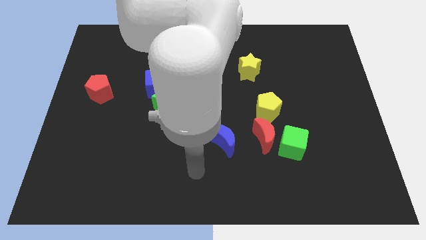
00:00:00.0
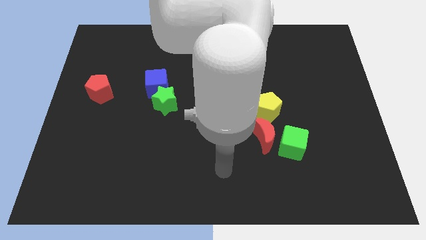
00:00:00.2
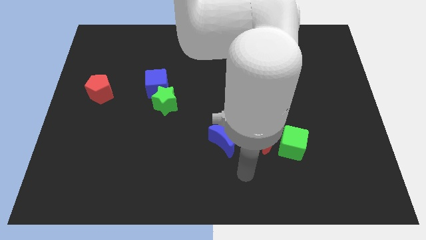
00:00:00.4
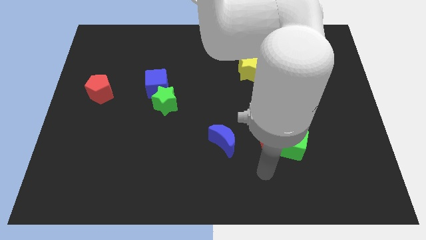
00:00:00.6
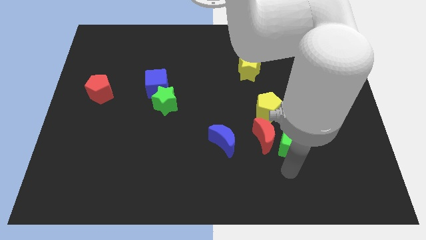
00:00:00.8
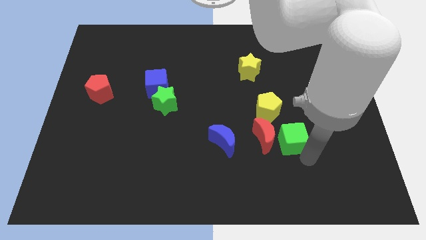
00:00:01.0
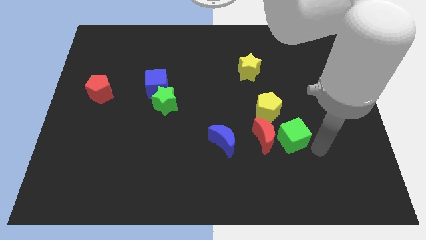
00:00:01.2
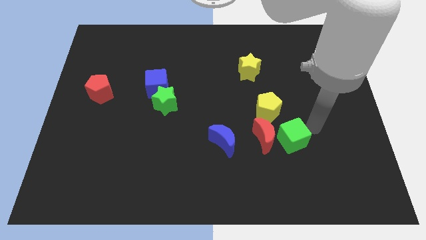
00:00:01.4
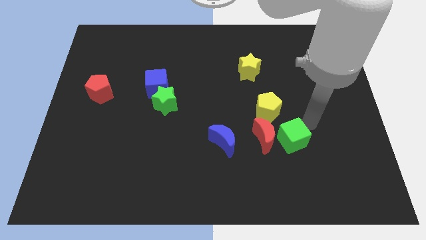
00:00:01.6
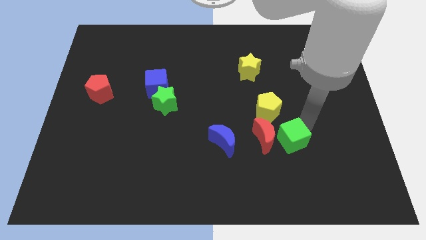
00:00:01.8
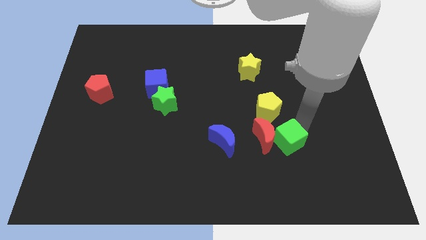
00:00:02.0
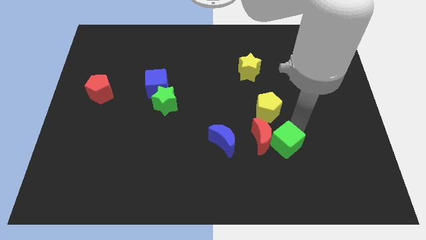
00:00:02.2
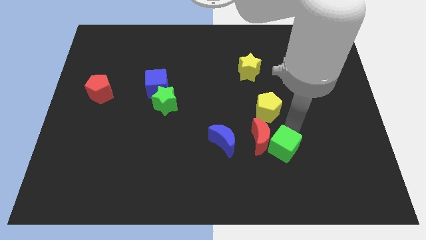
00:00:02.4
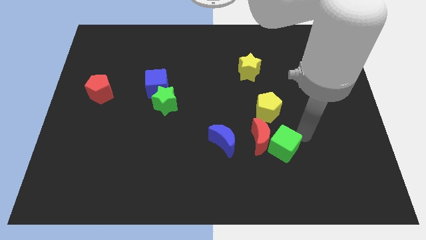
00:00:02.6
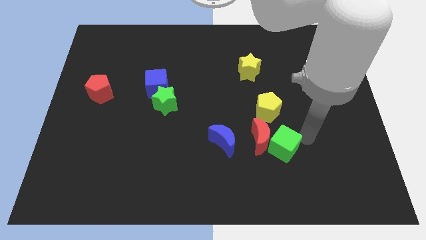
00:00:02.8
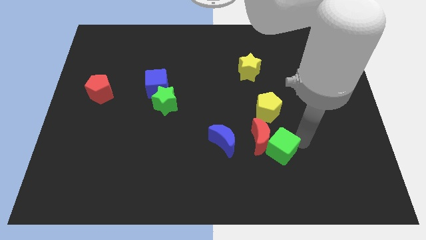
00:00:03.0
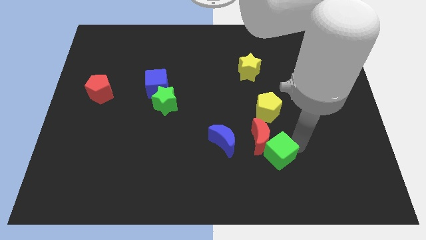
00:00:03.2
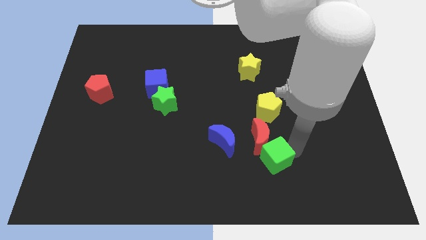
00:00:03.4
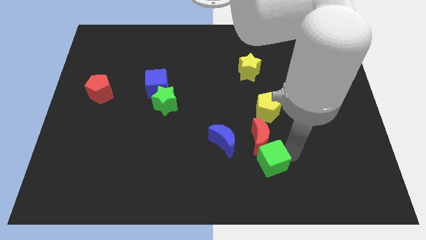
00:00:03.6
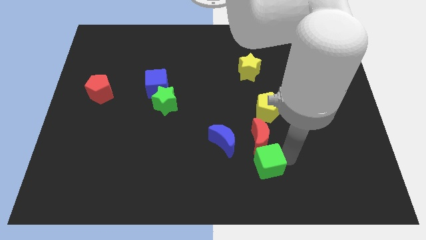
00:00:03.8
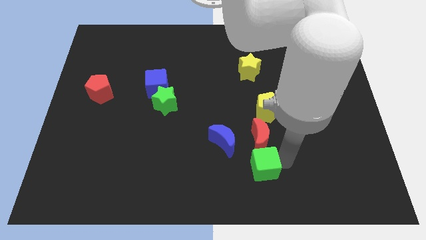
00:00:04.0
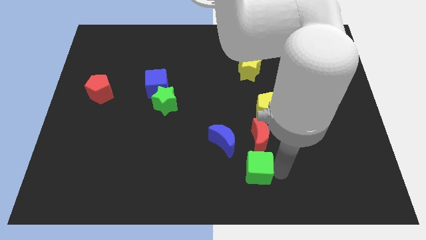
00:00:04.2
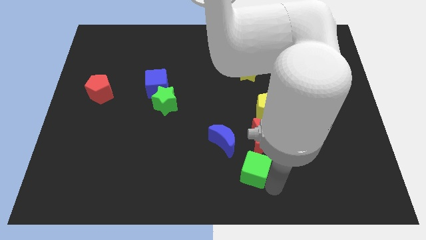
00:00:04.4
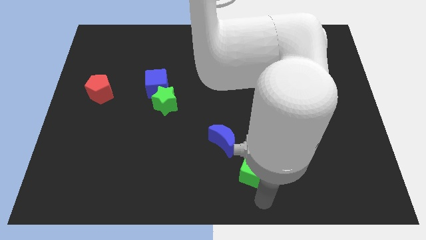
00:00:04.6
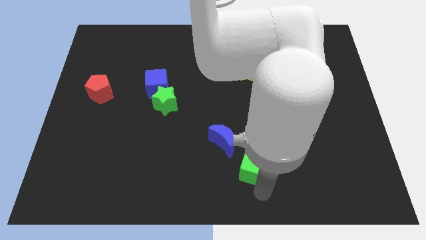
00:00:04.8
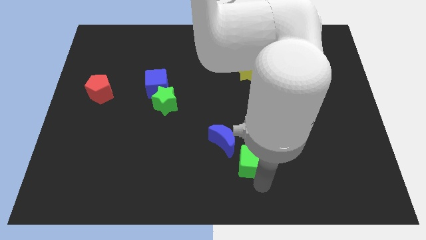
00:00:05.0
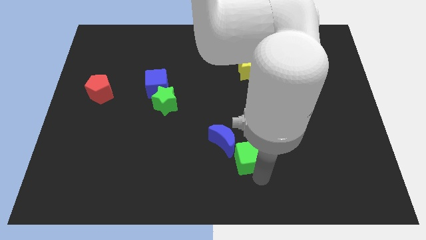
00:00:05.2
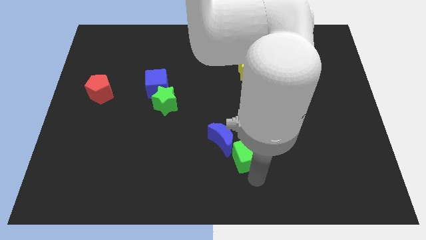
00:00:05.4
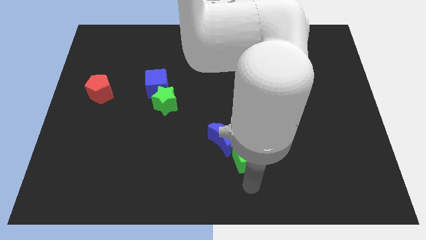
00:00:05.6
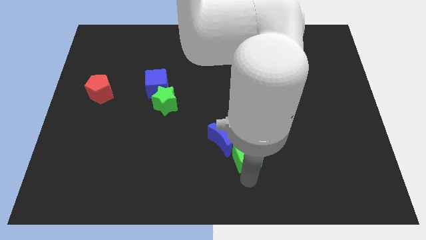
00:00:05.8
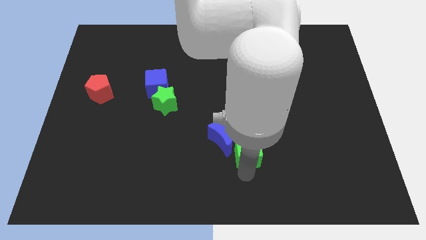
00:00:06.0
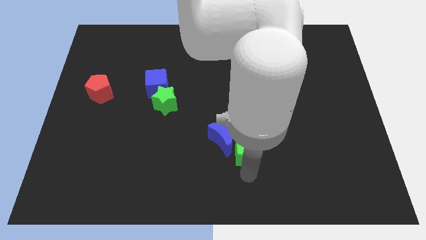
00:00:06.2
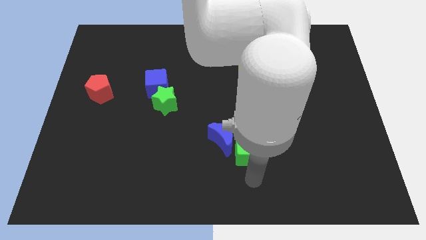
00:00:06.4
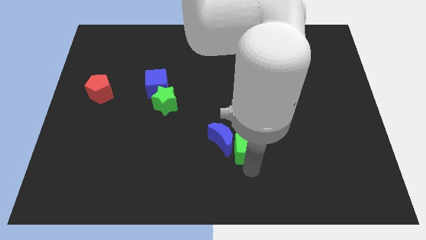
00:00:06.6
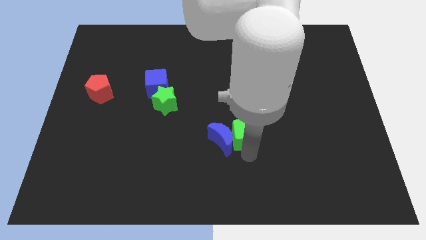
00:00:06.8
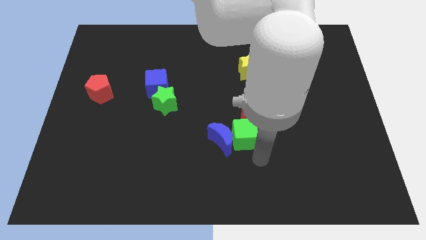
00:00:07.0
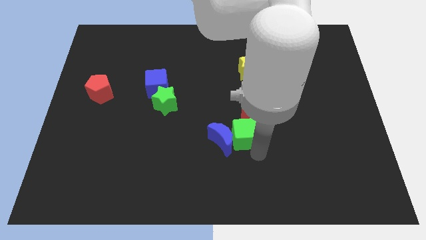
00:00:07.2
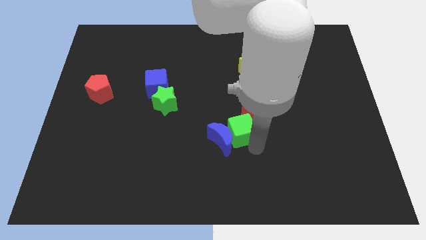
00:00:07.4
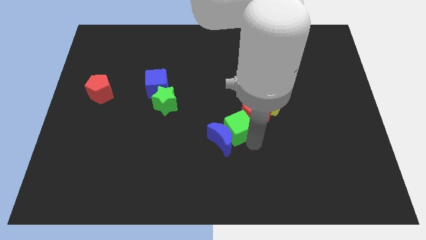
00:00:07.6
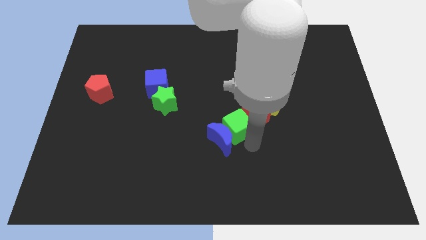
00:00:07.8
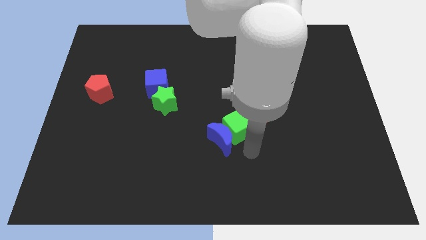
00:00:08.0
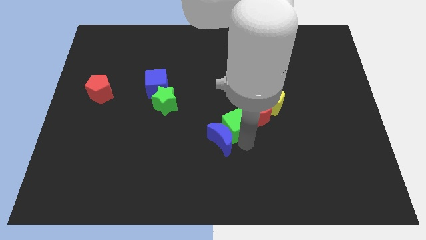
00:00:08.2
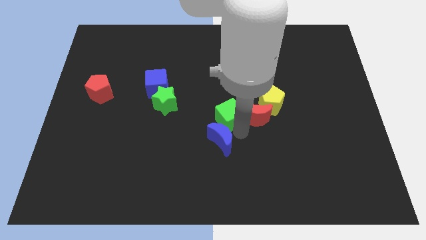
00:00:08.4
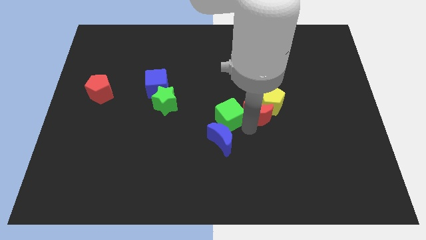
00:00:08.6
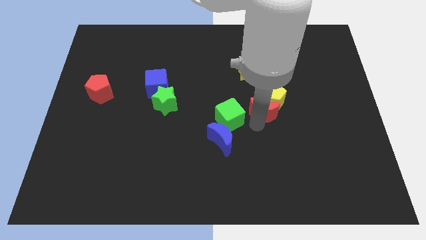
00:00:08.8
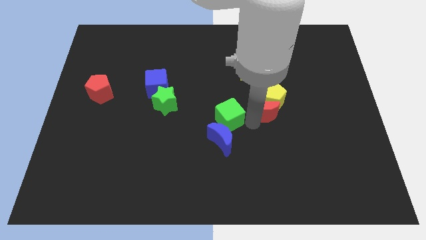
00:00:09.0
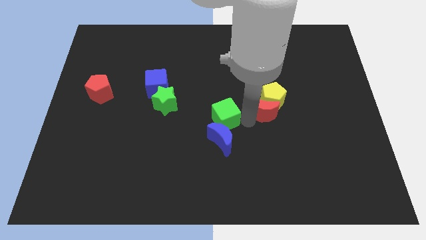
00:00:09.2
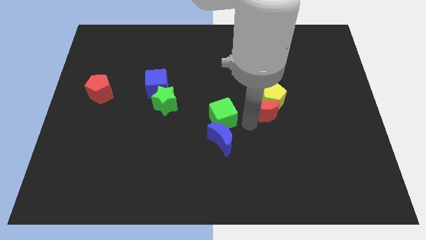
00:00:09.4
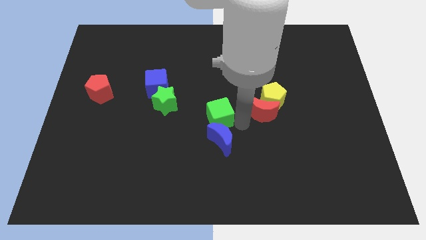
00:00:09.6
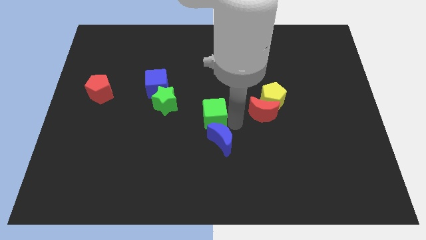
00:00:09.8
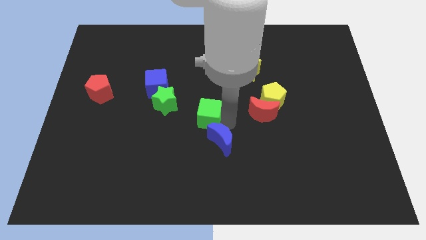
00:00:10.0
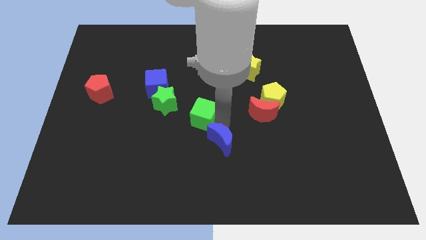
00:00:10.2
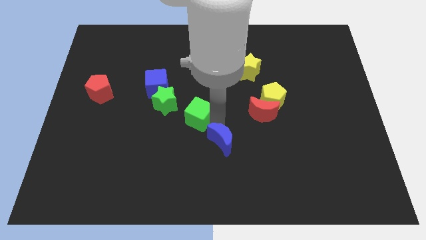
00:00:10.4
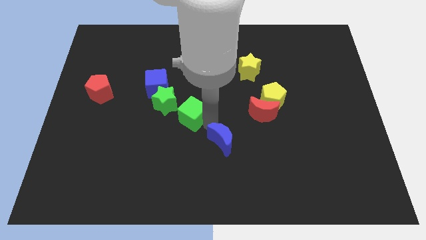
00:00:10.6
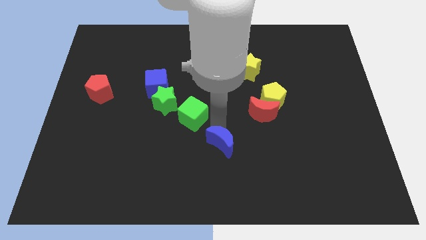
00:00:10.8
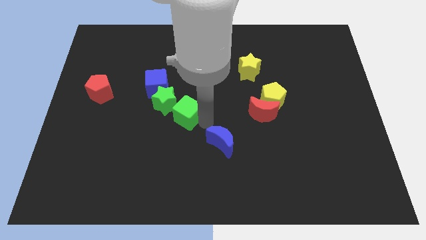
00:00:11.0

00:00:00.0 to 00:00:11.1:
put the green cube close to the green star

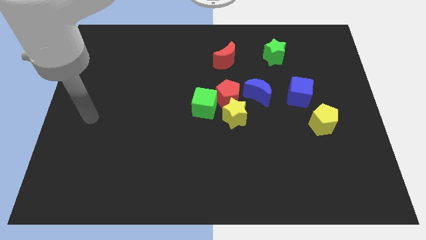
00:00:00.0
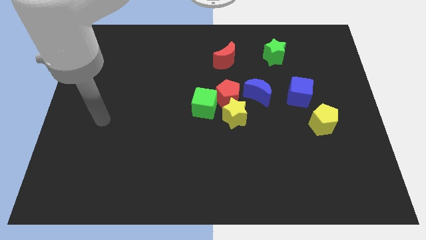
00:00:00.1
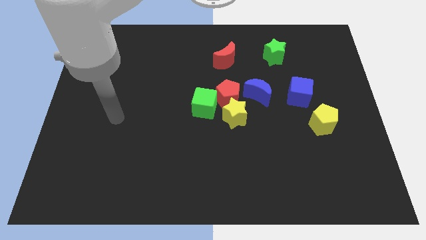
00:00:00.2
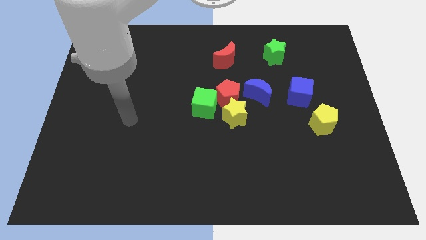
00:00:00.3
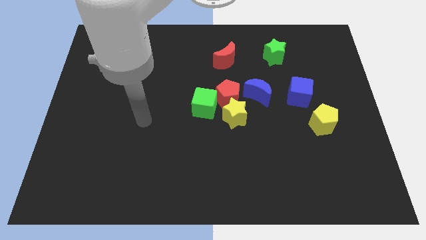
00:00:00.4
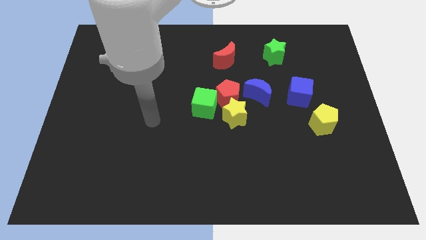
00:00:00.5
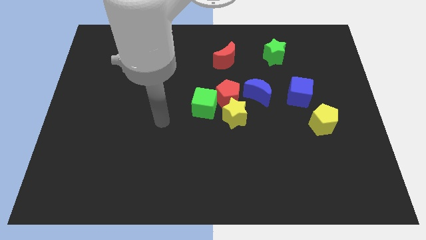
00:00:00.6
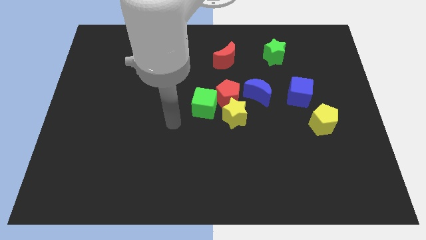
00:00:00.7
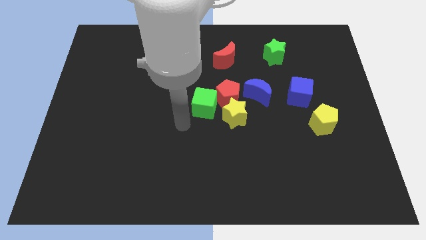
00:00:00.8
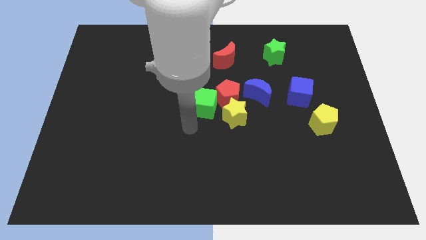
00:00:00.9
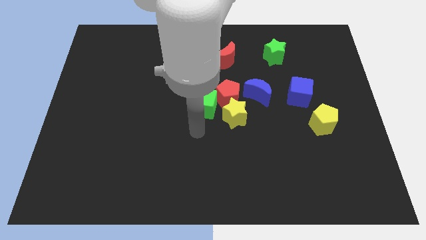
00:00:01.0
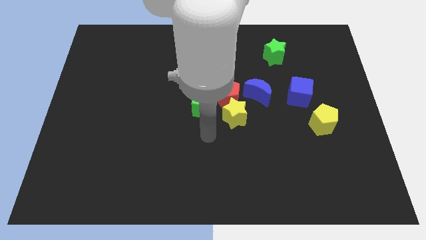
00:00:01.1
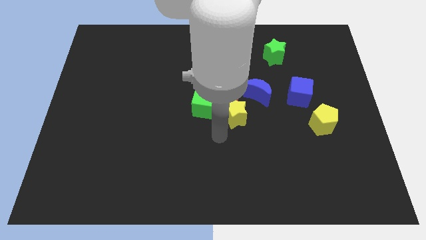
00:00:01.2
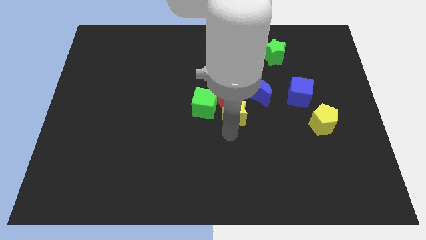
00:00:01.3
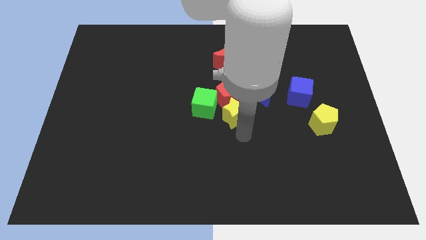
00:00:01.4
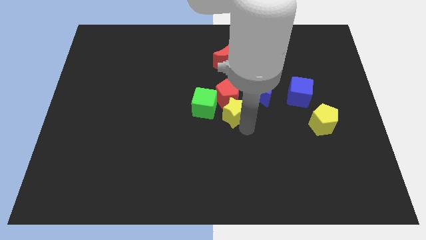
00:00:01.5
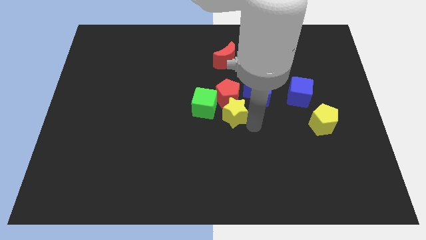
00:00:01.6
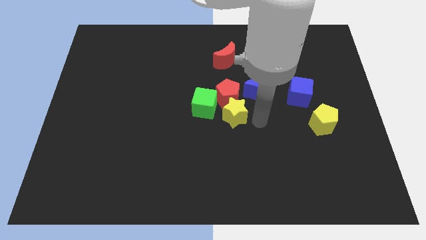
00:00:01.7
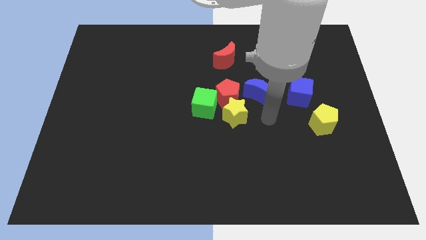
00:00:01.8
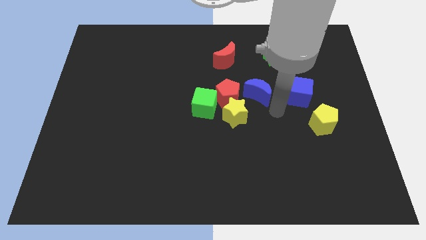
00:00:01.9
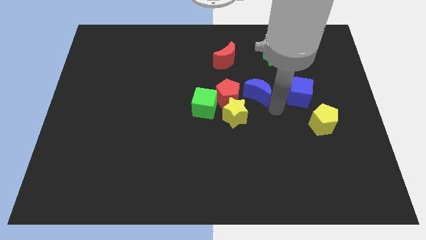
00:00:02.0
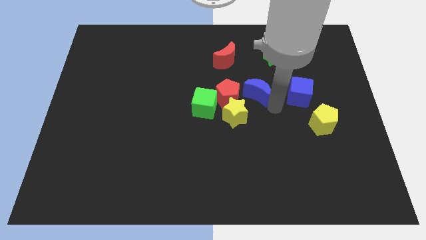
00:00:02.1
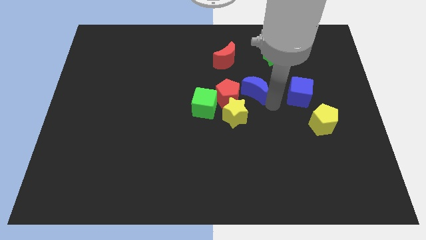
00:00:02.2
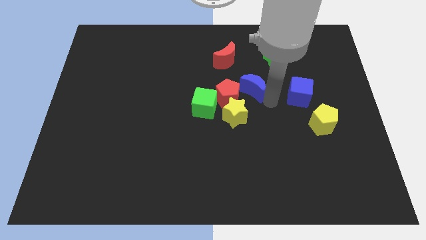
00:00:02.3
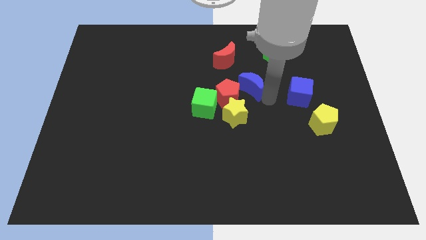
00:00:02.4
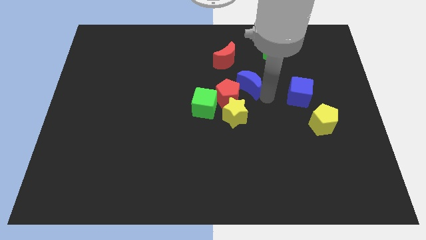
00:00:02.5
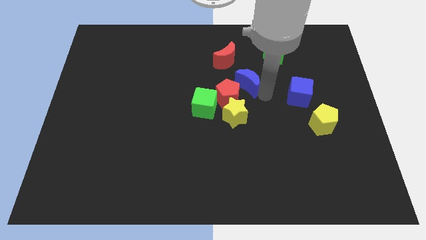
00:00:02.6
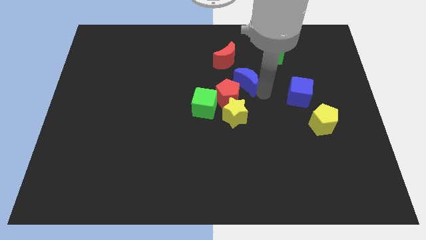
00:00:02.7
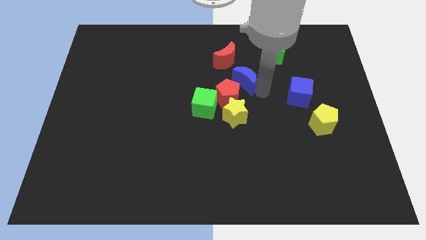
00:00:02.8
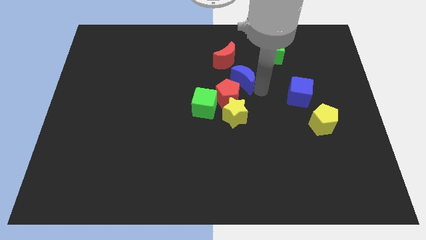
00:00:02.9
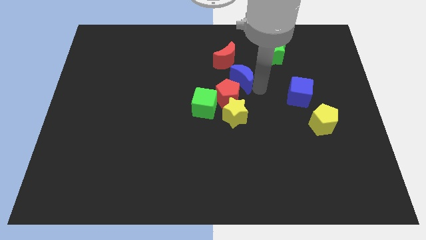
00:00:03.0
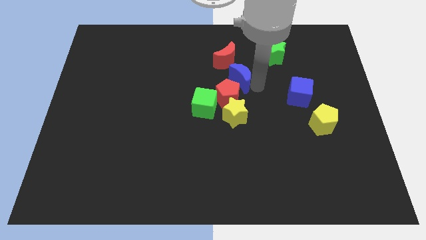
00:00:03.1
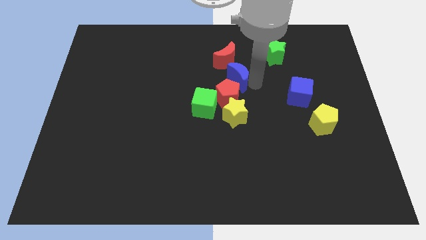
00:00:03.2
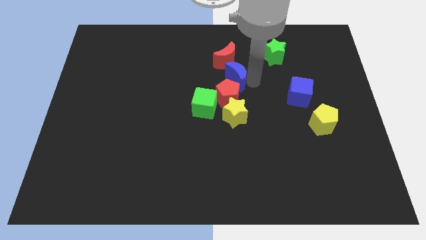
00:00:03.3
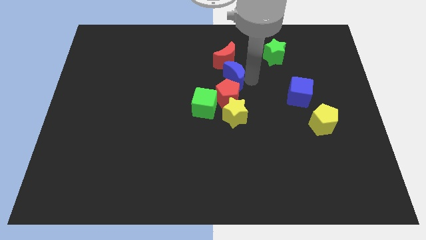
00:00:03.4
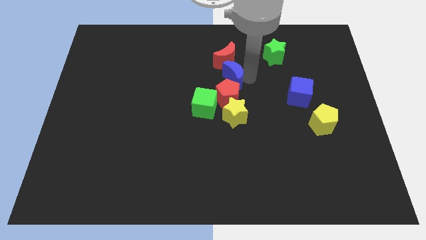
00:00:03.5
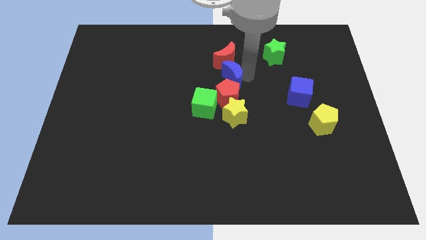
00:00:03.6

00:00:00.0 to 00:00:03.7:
put the blue moon to the red moon
